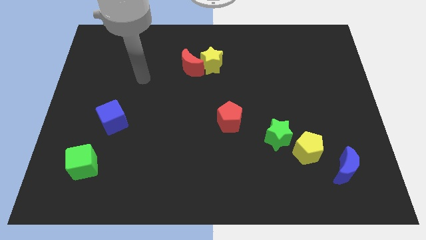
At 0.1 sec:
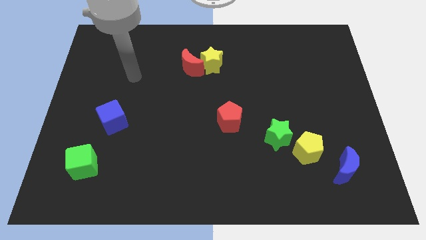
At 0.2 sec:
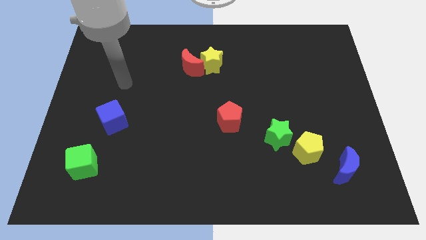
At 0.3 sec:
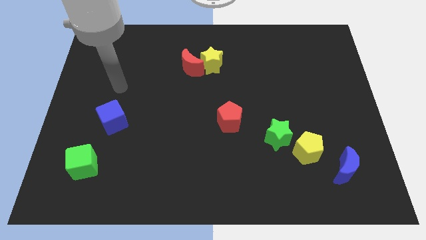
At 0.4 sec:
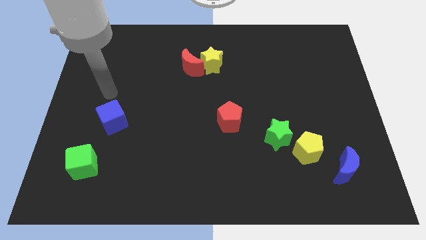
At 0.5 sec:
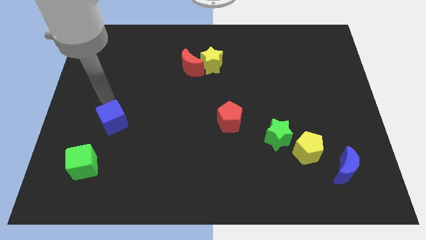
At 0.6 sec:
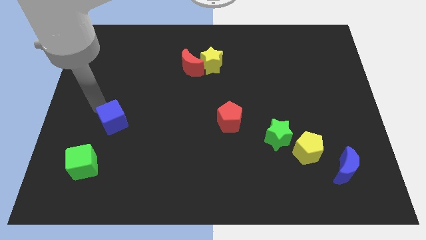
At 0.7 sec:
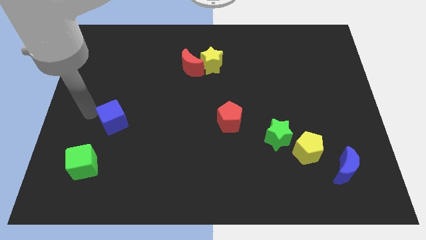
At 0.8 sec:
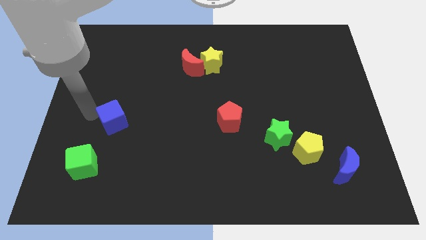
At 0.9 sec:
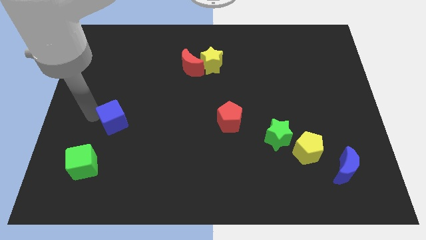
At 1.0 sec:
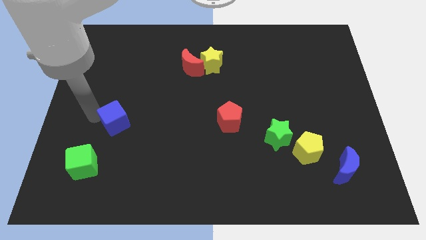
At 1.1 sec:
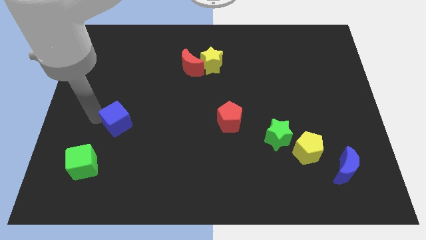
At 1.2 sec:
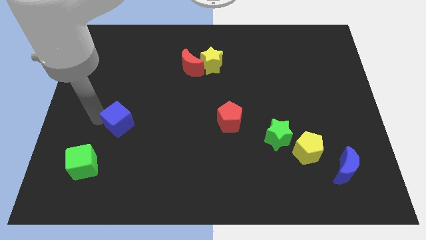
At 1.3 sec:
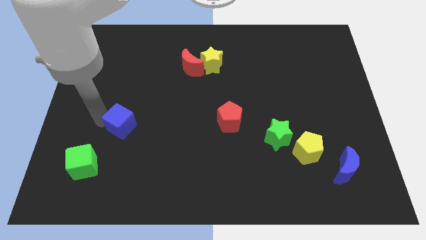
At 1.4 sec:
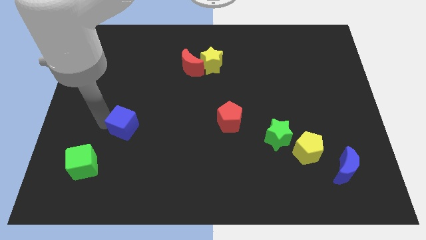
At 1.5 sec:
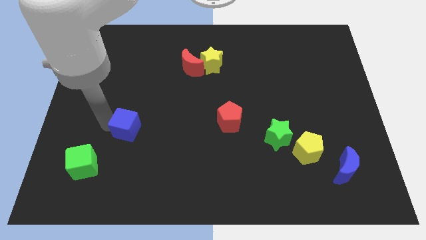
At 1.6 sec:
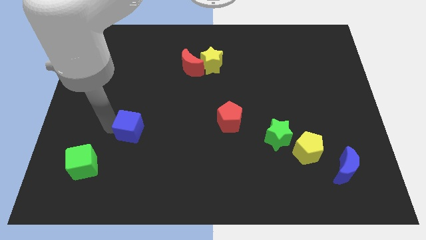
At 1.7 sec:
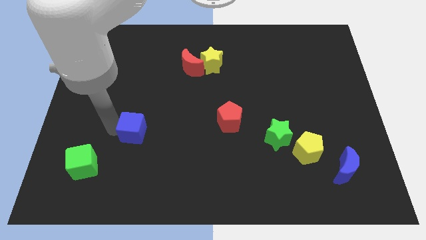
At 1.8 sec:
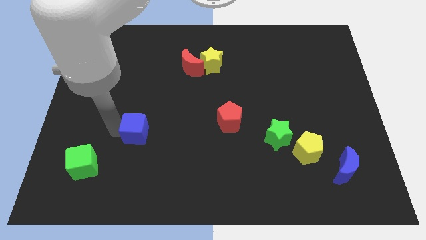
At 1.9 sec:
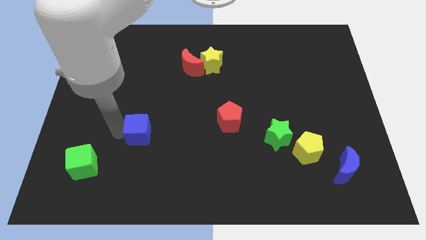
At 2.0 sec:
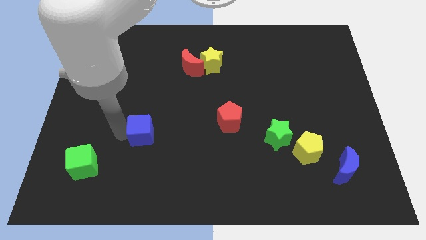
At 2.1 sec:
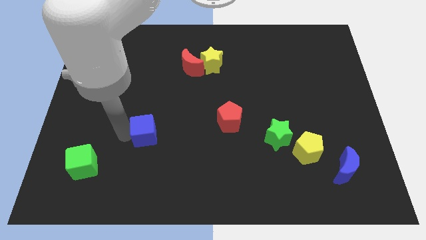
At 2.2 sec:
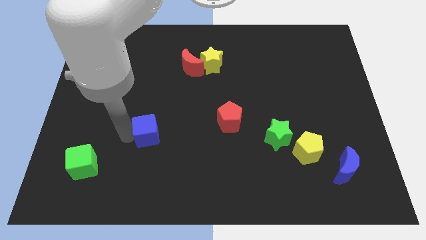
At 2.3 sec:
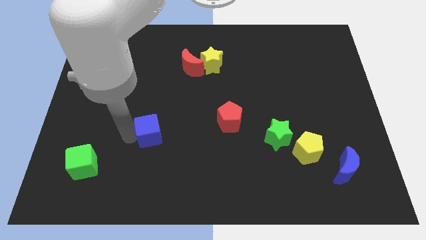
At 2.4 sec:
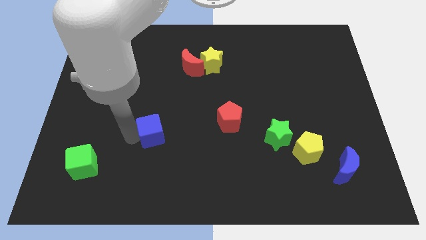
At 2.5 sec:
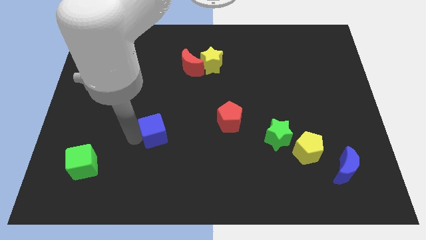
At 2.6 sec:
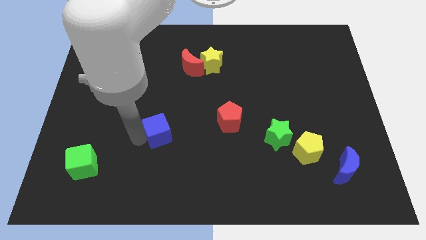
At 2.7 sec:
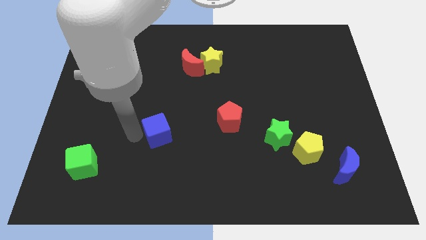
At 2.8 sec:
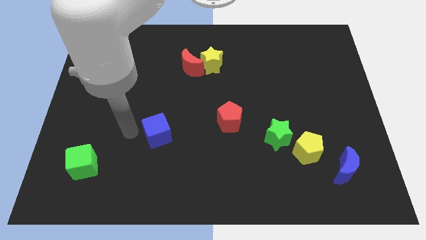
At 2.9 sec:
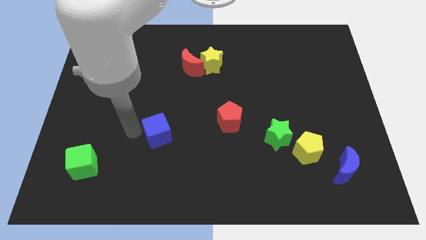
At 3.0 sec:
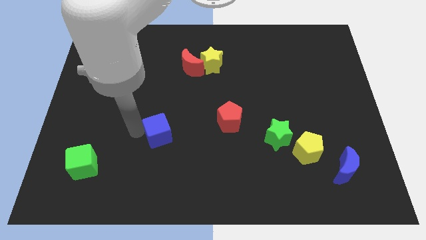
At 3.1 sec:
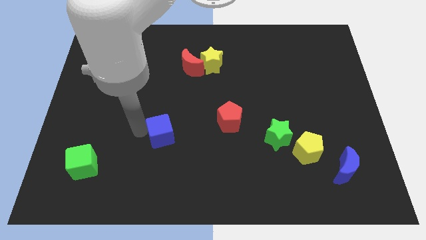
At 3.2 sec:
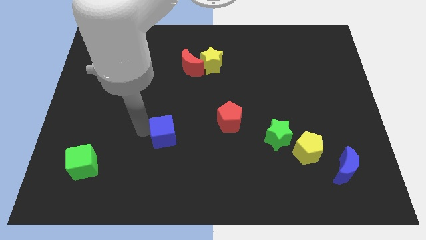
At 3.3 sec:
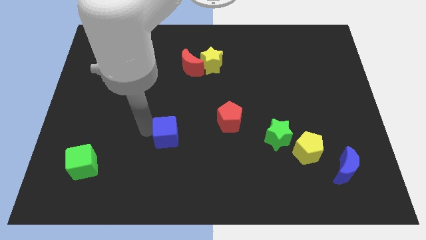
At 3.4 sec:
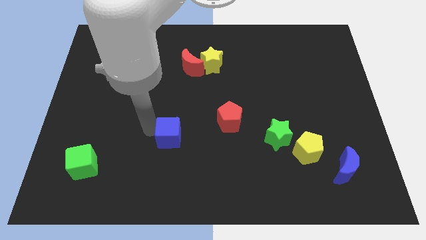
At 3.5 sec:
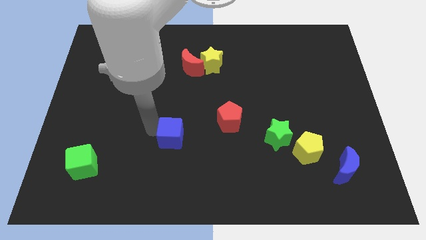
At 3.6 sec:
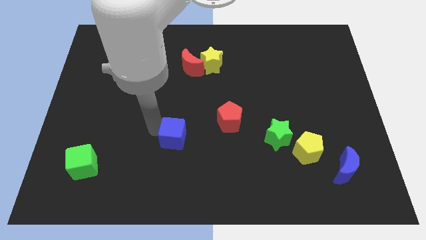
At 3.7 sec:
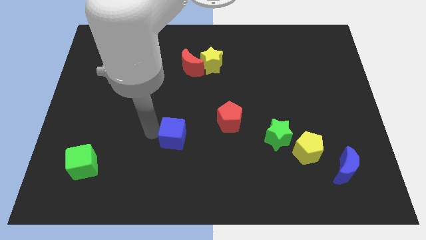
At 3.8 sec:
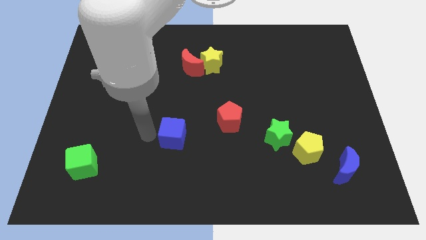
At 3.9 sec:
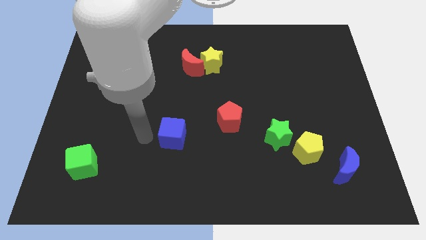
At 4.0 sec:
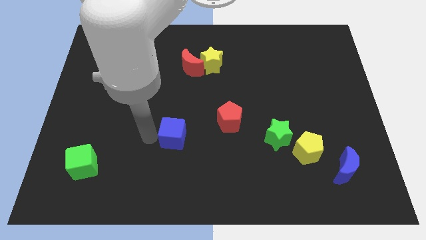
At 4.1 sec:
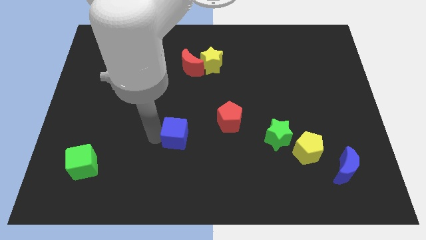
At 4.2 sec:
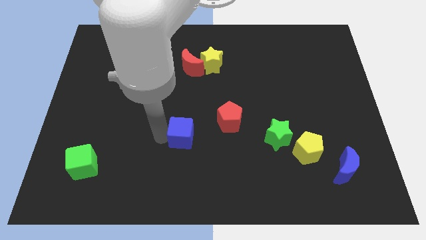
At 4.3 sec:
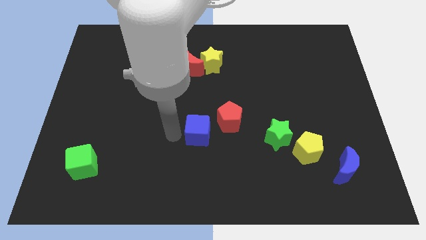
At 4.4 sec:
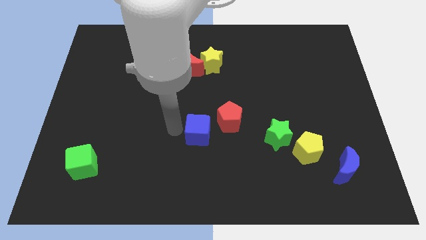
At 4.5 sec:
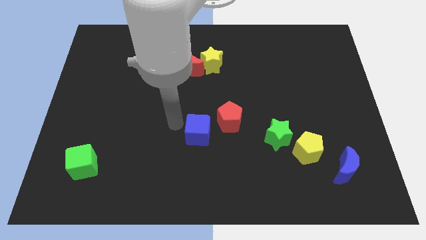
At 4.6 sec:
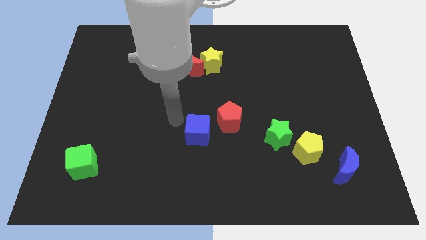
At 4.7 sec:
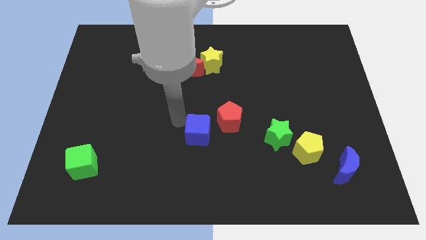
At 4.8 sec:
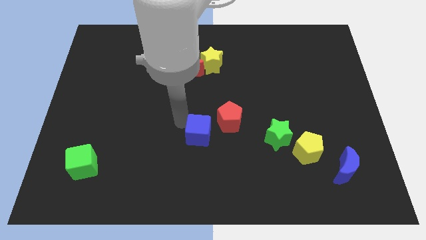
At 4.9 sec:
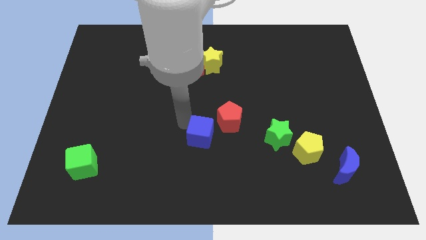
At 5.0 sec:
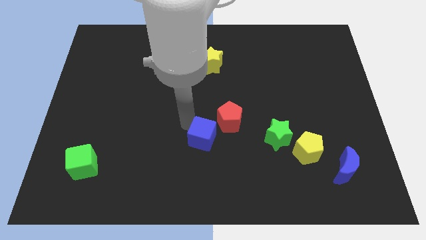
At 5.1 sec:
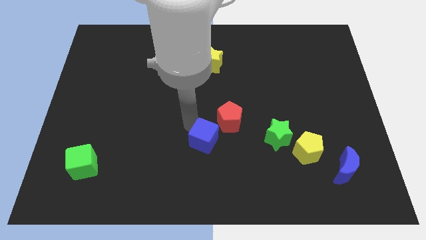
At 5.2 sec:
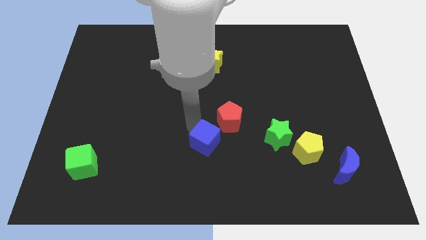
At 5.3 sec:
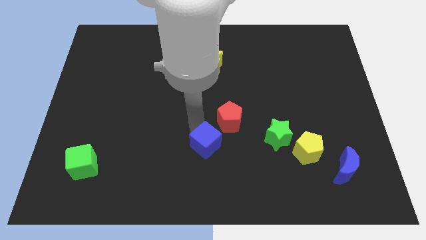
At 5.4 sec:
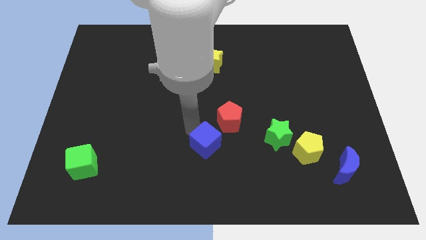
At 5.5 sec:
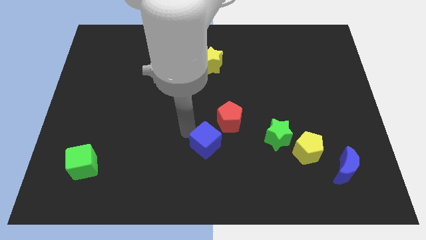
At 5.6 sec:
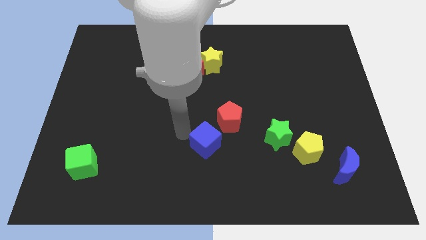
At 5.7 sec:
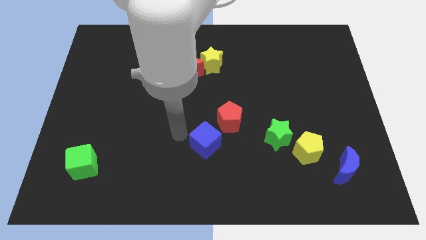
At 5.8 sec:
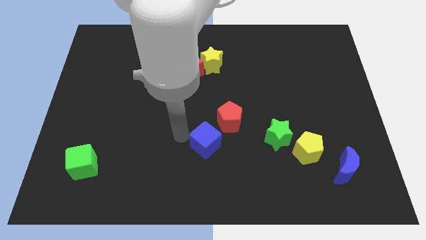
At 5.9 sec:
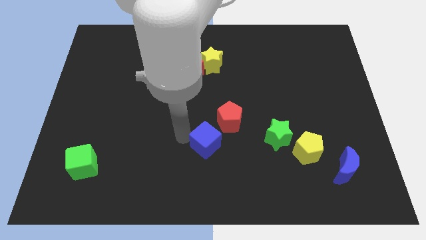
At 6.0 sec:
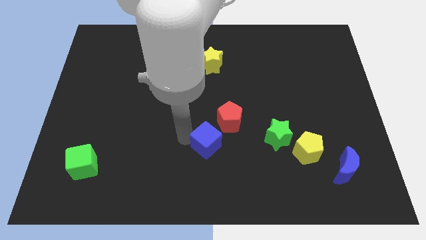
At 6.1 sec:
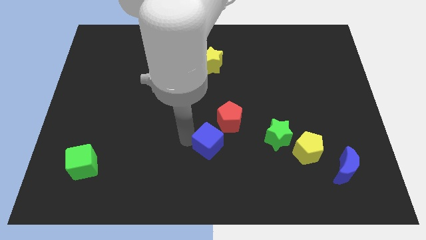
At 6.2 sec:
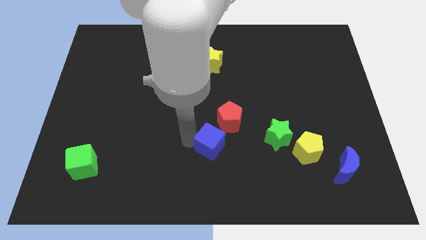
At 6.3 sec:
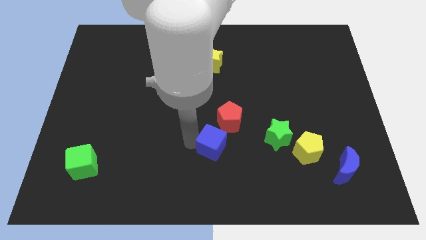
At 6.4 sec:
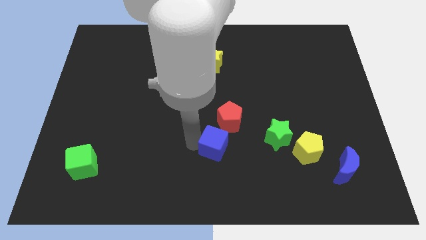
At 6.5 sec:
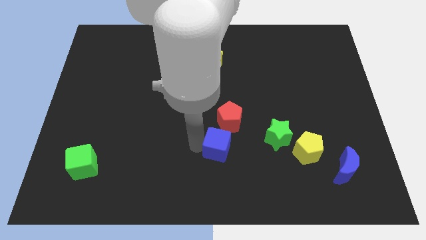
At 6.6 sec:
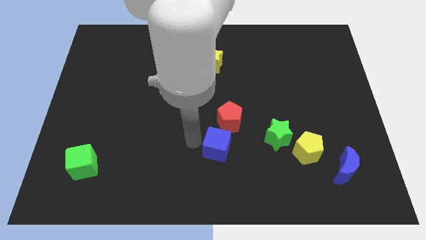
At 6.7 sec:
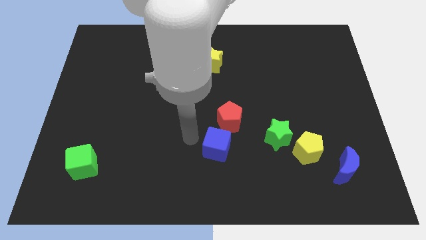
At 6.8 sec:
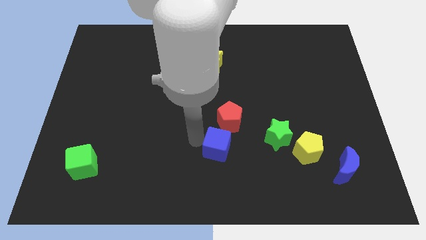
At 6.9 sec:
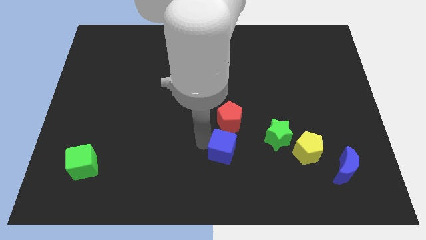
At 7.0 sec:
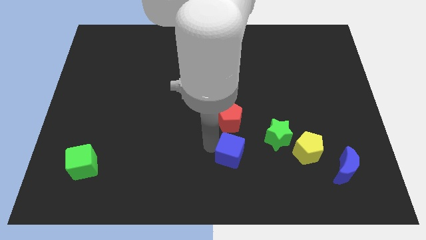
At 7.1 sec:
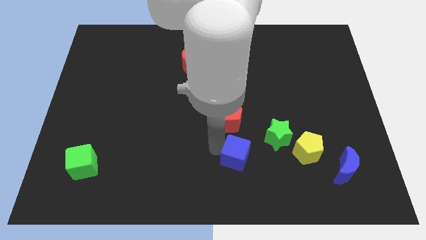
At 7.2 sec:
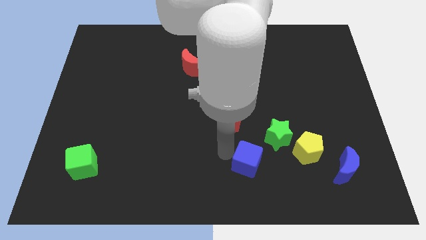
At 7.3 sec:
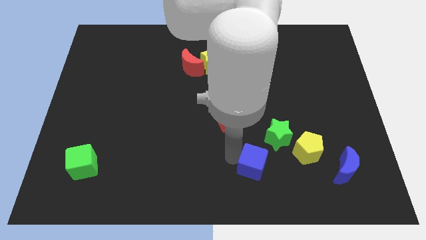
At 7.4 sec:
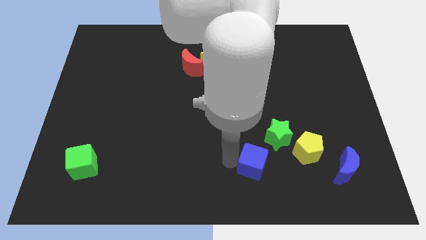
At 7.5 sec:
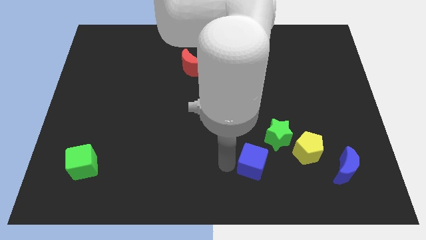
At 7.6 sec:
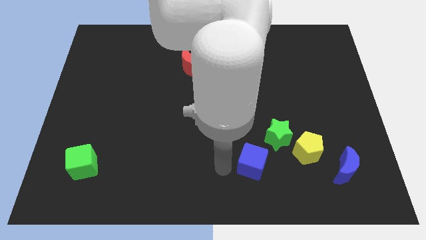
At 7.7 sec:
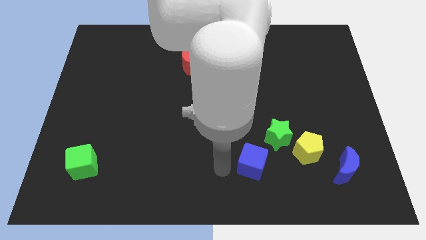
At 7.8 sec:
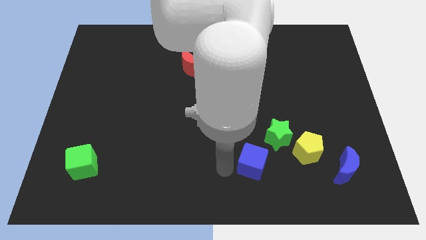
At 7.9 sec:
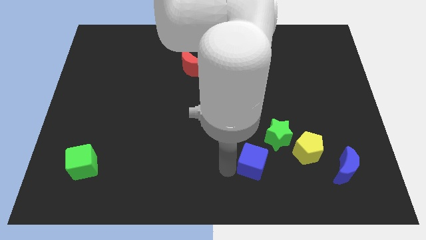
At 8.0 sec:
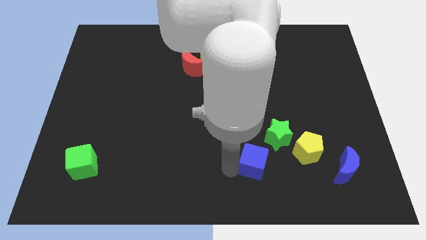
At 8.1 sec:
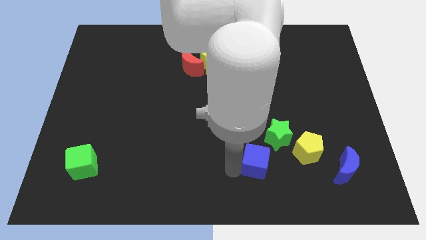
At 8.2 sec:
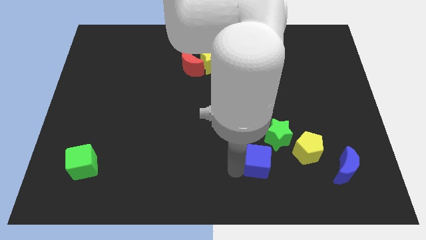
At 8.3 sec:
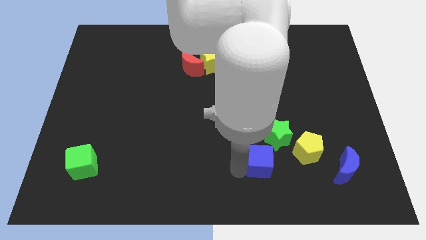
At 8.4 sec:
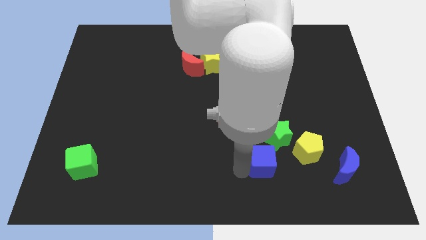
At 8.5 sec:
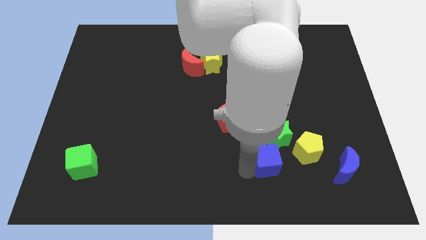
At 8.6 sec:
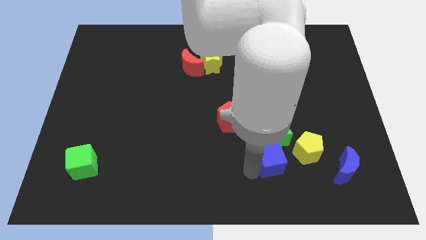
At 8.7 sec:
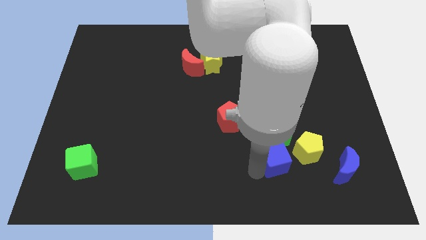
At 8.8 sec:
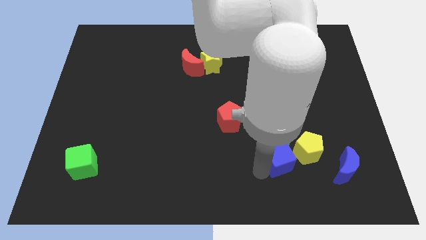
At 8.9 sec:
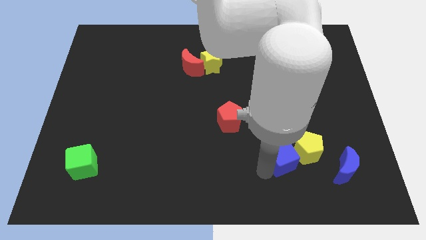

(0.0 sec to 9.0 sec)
put the blue cube close to the yellow pentagon
